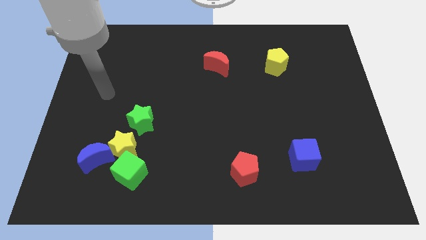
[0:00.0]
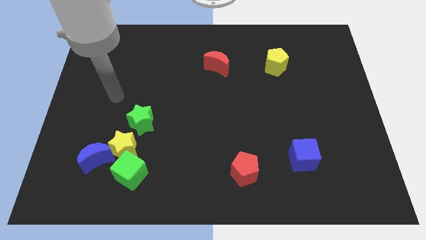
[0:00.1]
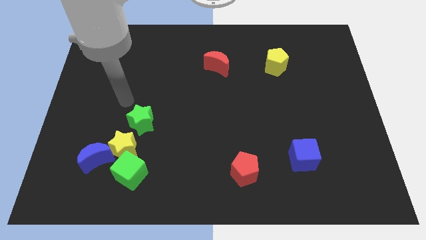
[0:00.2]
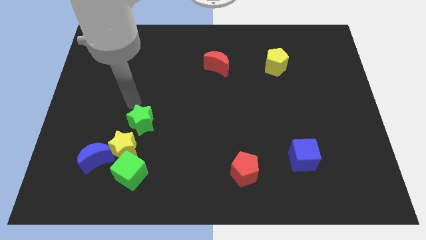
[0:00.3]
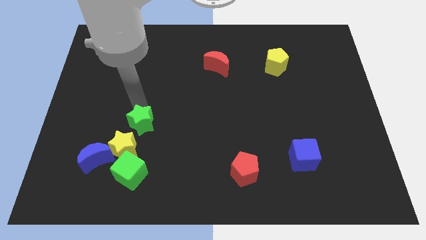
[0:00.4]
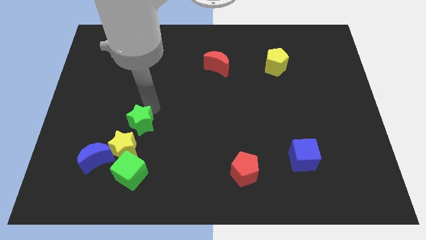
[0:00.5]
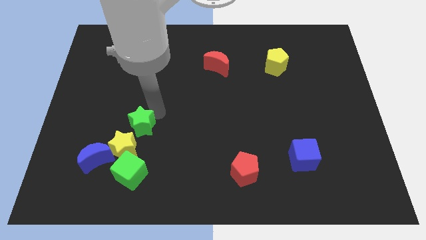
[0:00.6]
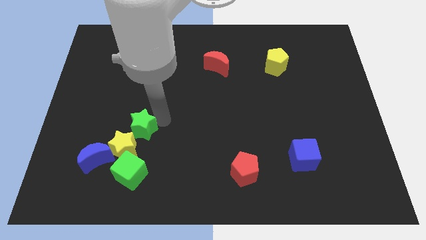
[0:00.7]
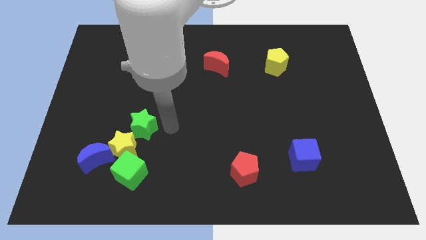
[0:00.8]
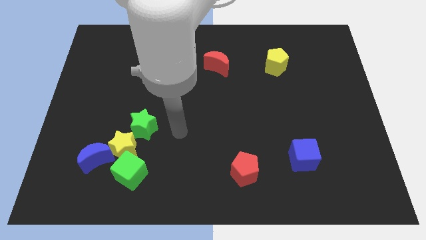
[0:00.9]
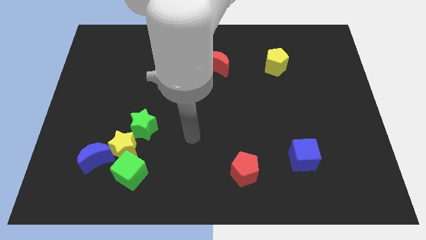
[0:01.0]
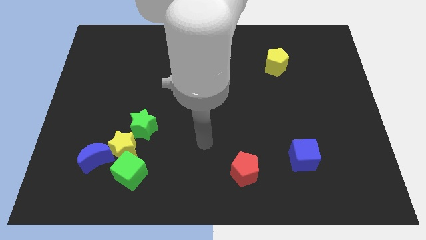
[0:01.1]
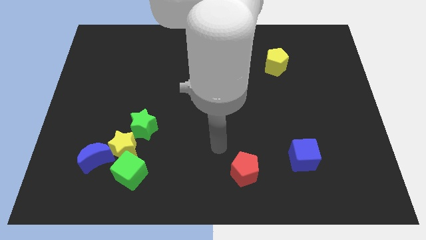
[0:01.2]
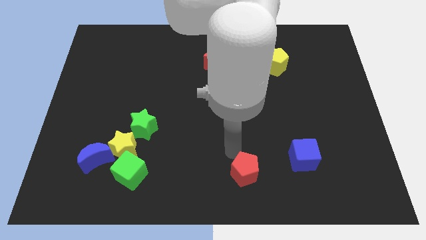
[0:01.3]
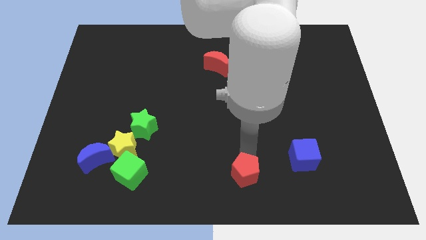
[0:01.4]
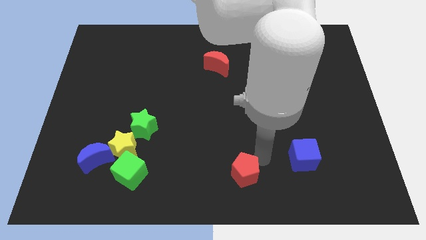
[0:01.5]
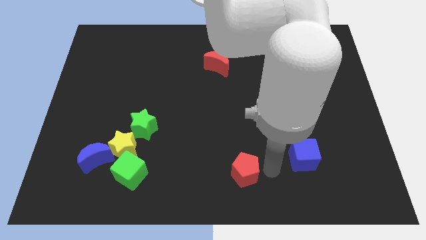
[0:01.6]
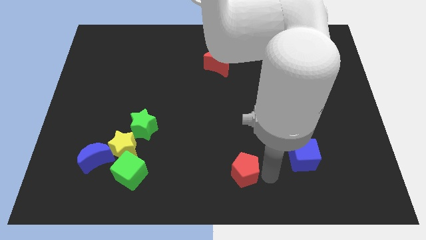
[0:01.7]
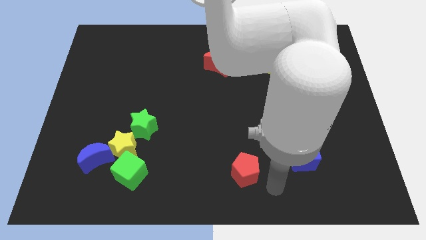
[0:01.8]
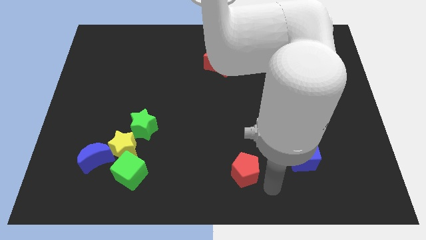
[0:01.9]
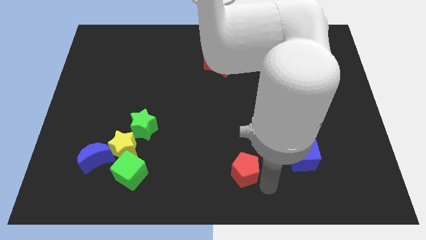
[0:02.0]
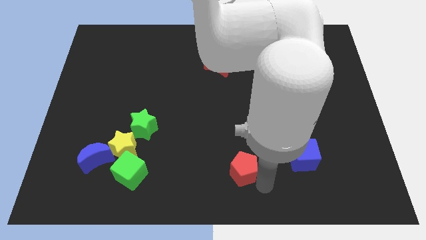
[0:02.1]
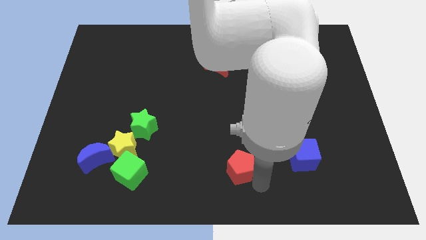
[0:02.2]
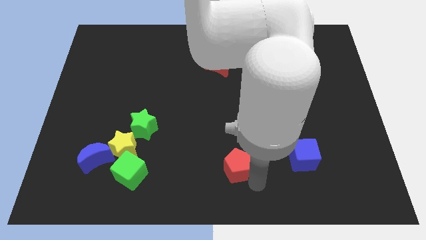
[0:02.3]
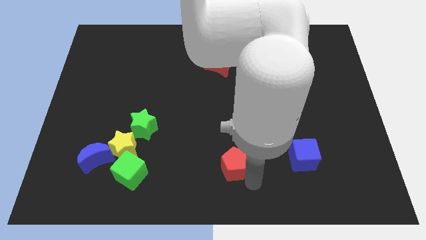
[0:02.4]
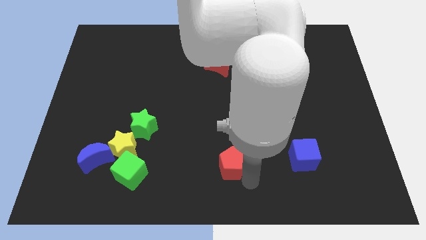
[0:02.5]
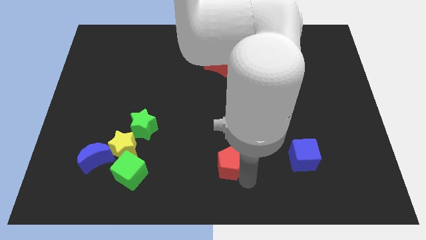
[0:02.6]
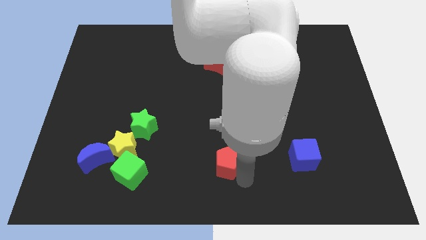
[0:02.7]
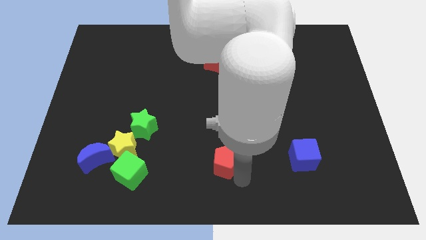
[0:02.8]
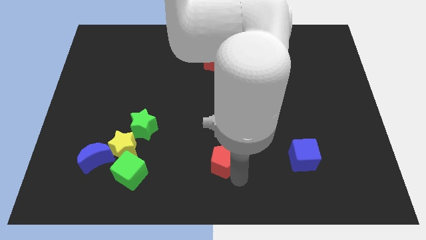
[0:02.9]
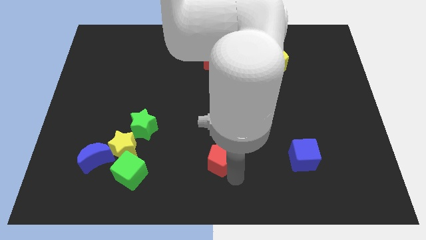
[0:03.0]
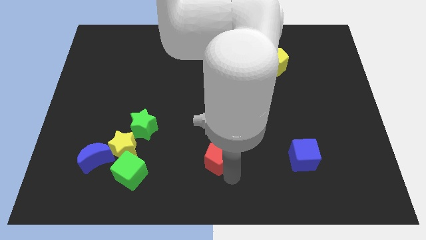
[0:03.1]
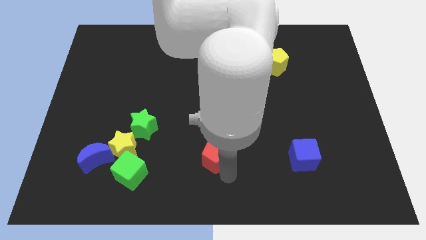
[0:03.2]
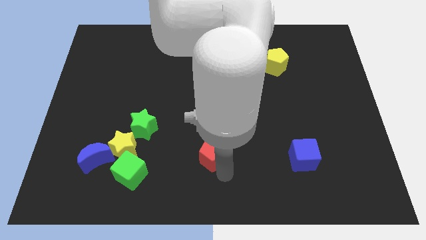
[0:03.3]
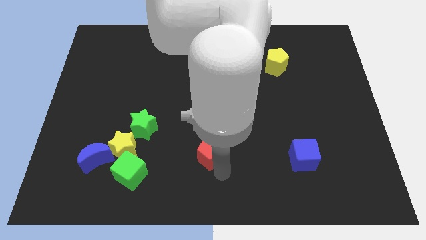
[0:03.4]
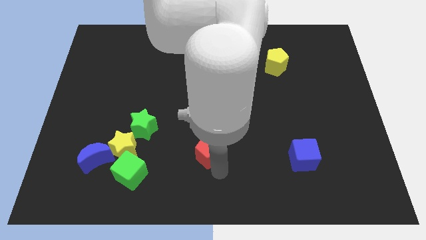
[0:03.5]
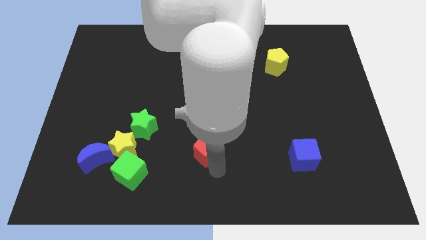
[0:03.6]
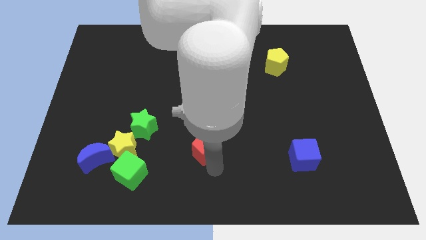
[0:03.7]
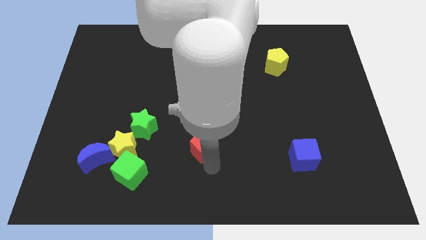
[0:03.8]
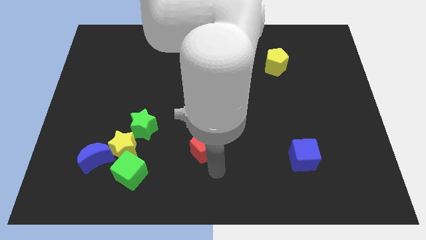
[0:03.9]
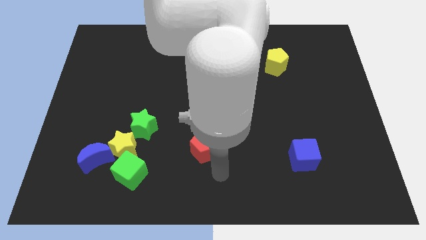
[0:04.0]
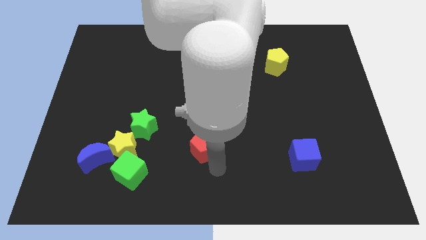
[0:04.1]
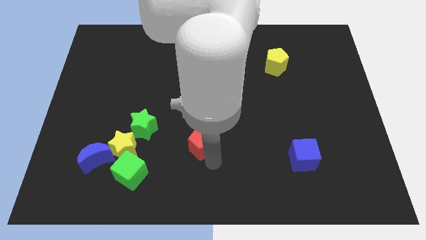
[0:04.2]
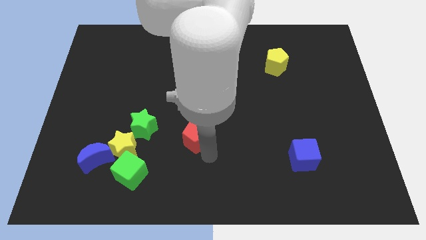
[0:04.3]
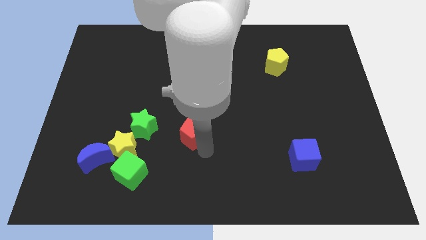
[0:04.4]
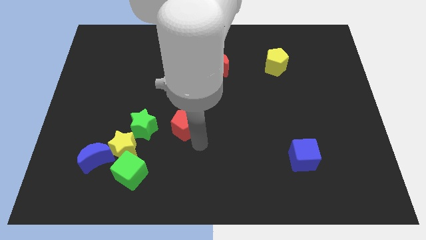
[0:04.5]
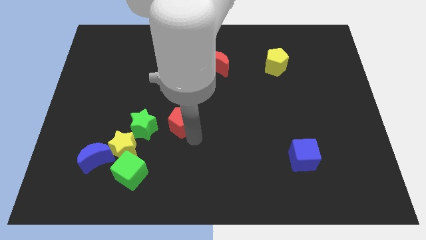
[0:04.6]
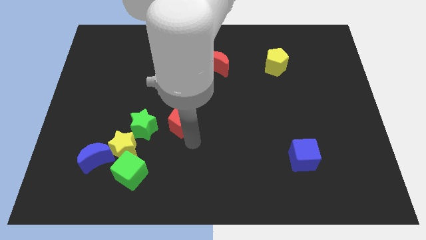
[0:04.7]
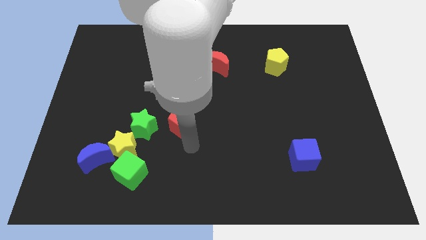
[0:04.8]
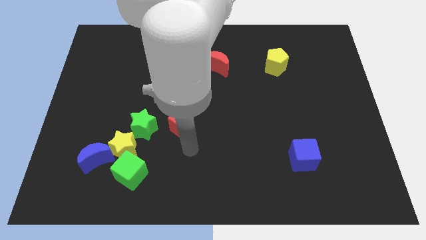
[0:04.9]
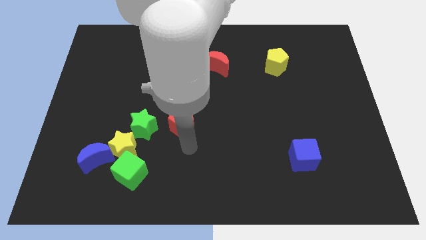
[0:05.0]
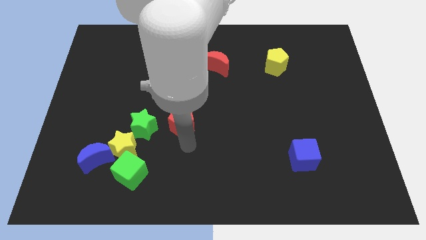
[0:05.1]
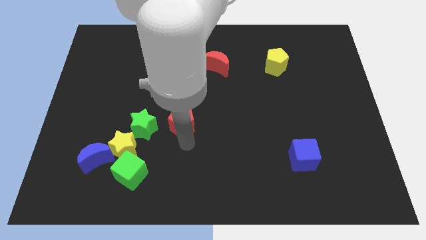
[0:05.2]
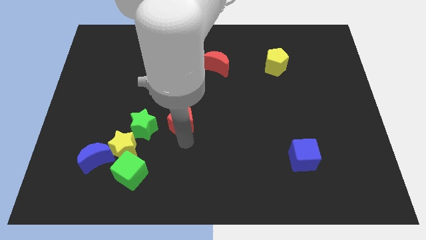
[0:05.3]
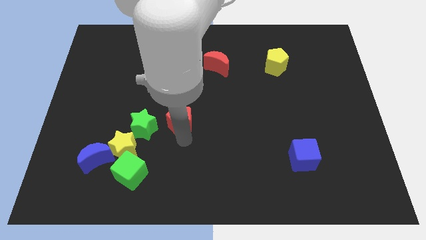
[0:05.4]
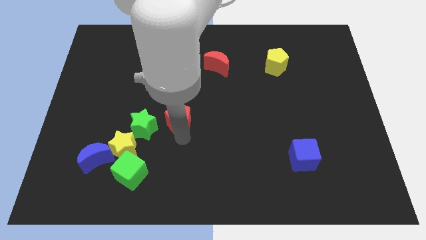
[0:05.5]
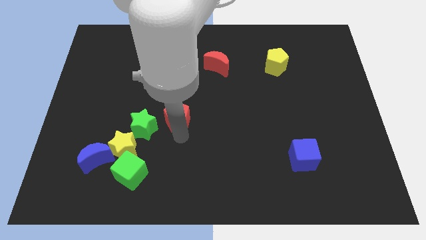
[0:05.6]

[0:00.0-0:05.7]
push the red pentagon up and left diagonally

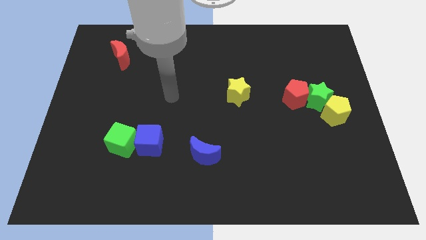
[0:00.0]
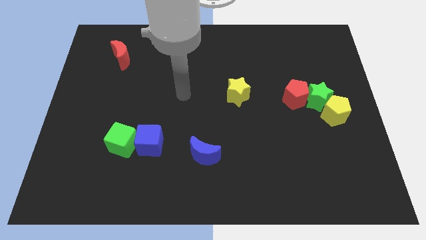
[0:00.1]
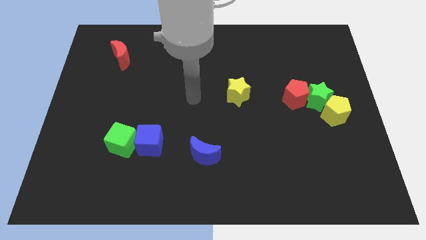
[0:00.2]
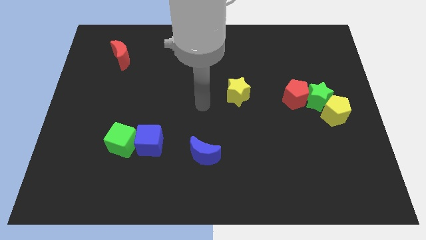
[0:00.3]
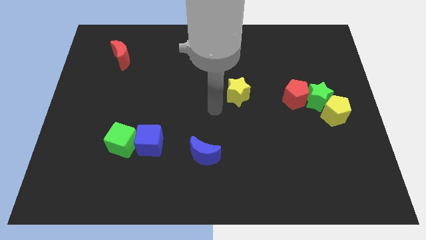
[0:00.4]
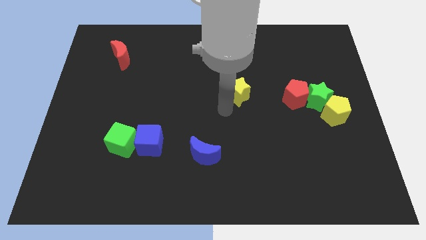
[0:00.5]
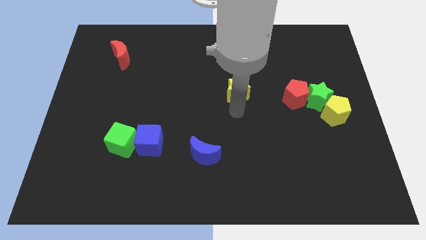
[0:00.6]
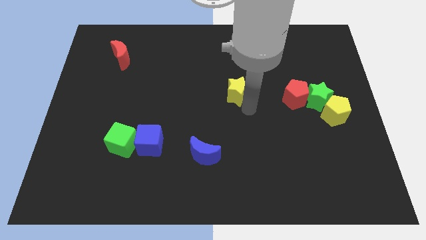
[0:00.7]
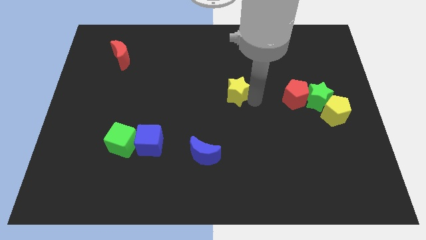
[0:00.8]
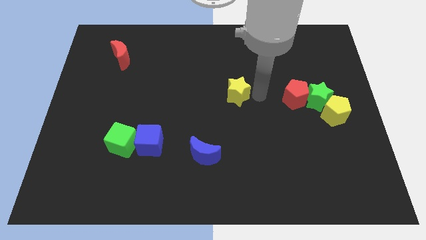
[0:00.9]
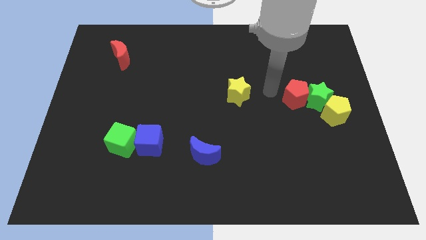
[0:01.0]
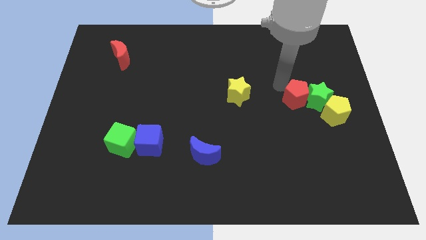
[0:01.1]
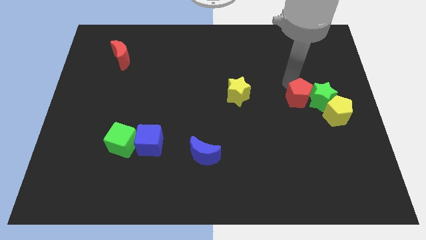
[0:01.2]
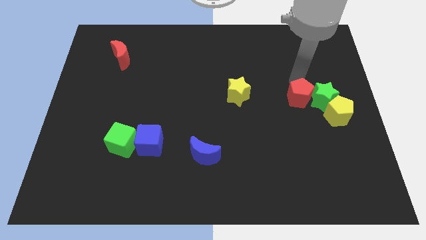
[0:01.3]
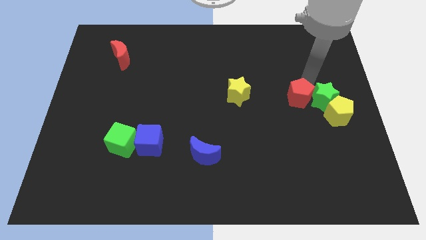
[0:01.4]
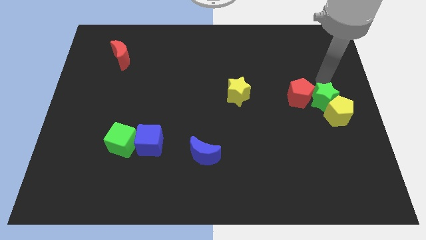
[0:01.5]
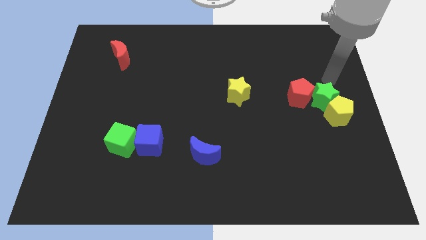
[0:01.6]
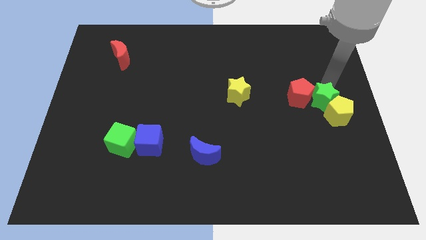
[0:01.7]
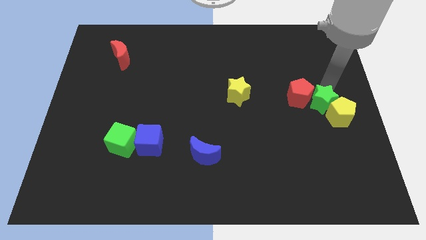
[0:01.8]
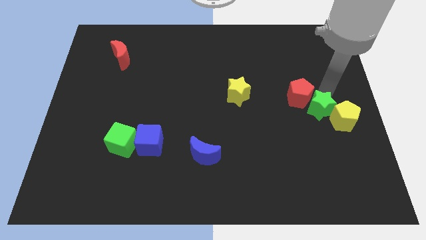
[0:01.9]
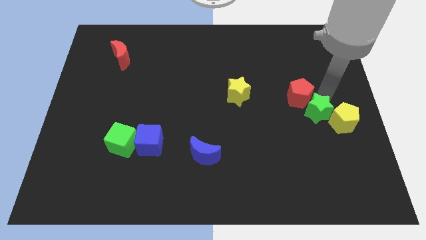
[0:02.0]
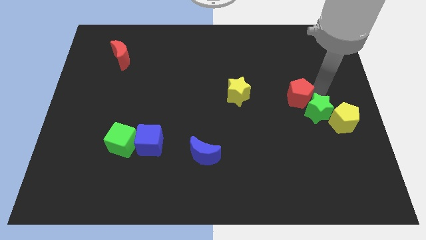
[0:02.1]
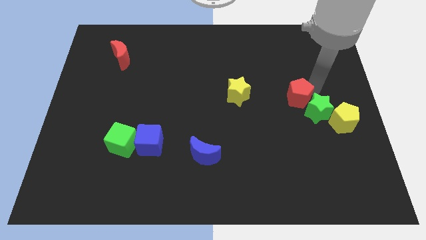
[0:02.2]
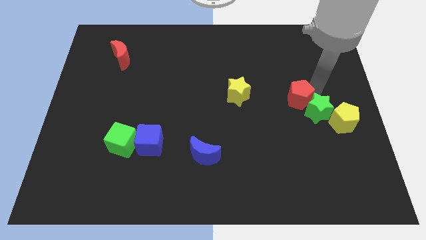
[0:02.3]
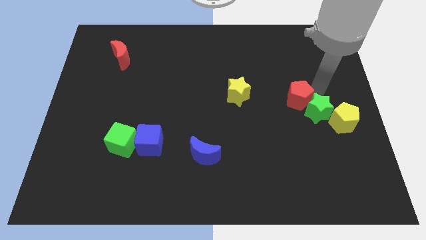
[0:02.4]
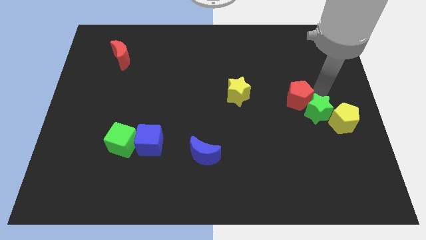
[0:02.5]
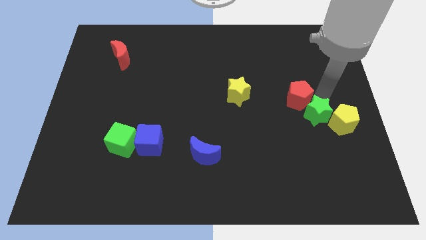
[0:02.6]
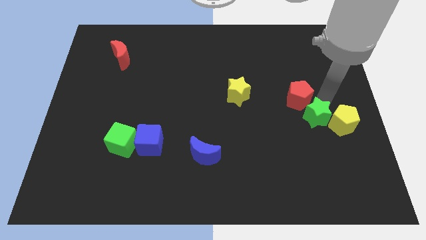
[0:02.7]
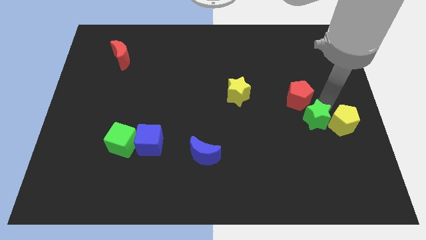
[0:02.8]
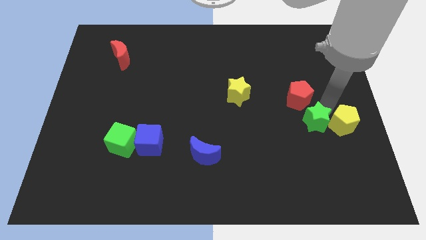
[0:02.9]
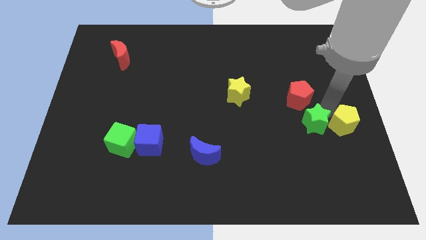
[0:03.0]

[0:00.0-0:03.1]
slightly slide the green star downwards
